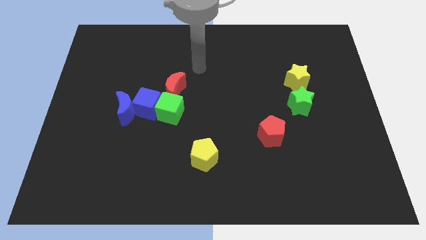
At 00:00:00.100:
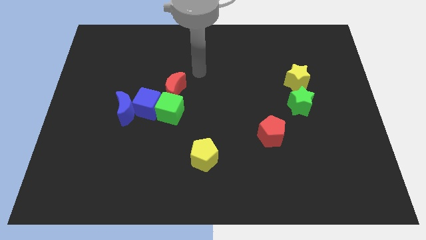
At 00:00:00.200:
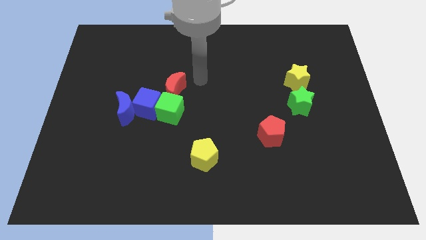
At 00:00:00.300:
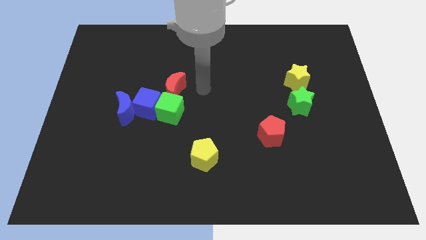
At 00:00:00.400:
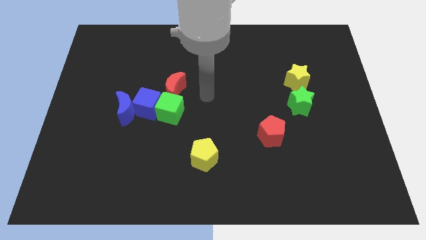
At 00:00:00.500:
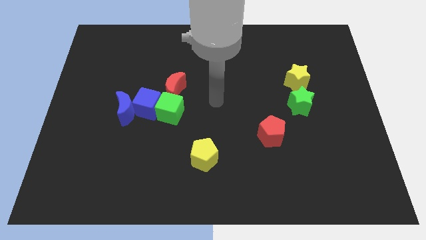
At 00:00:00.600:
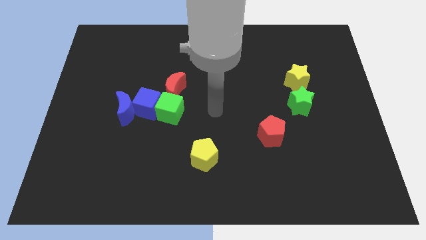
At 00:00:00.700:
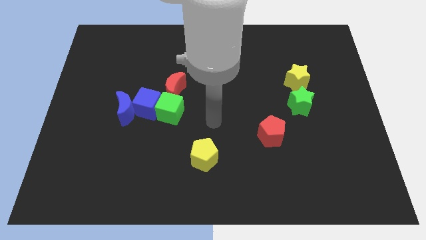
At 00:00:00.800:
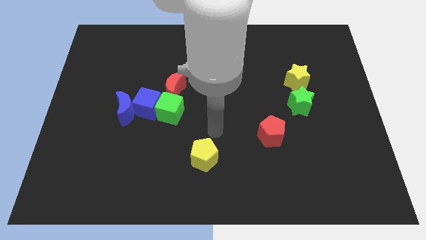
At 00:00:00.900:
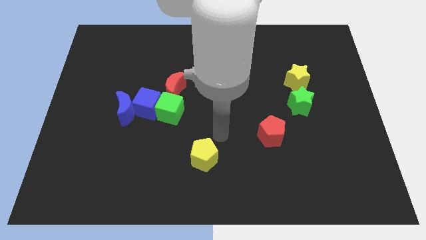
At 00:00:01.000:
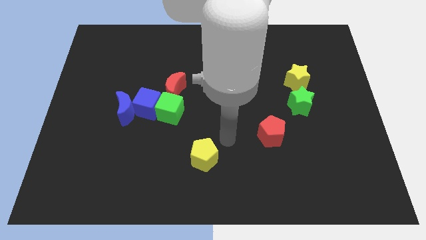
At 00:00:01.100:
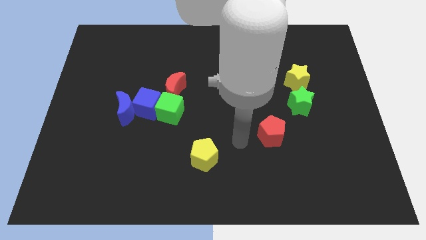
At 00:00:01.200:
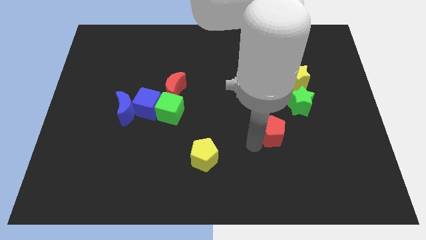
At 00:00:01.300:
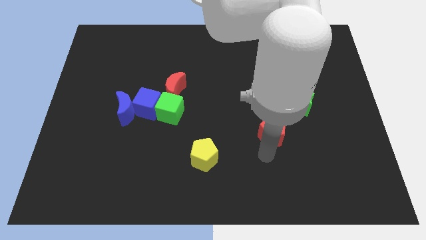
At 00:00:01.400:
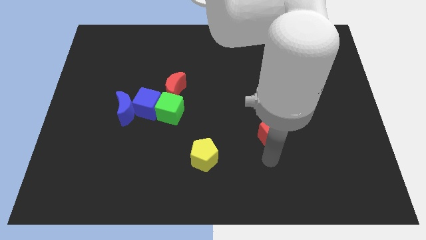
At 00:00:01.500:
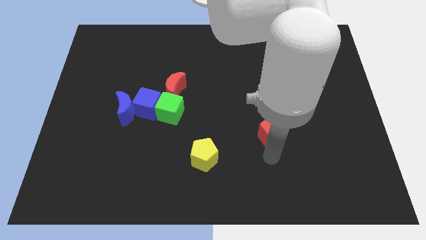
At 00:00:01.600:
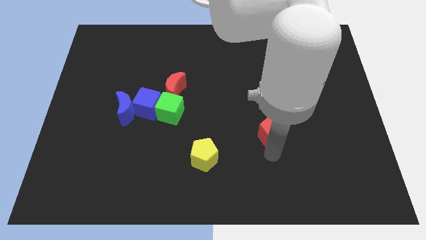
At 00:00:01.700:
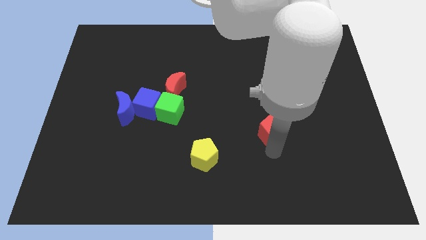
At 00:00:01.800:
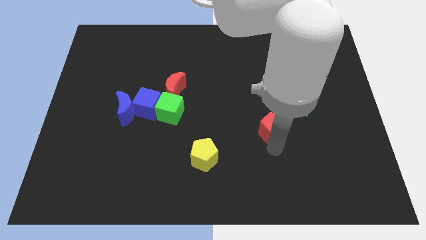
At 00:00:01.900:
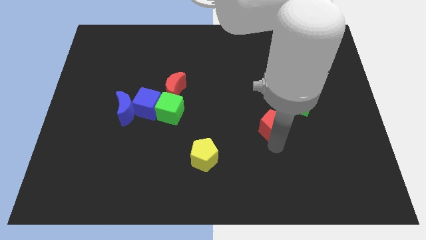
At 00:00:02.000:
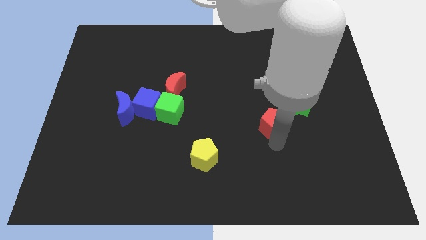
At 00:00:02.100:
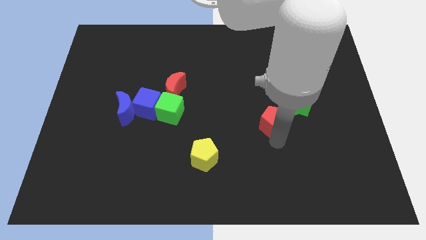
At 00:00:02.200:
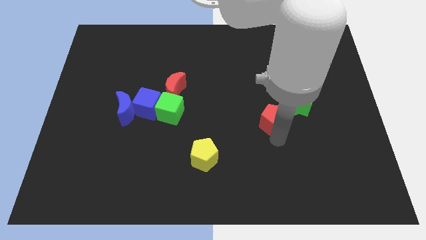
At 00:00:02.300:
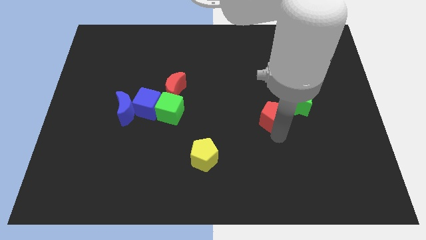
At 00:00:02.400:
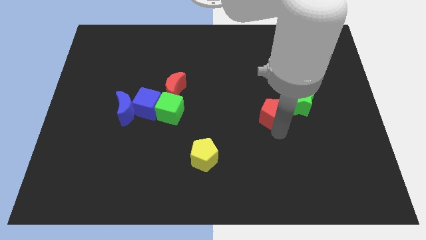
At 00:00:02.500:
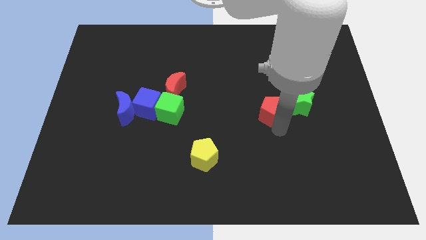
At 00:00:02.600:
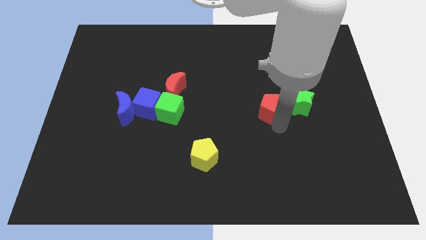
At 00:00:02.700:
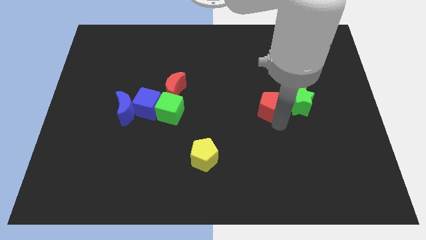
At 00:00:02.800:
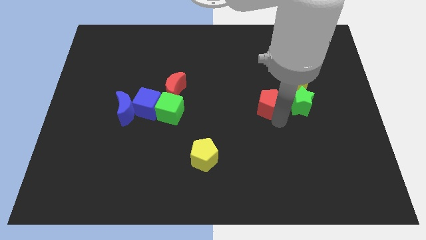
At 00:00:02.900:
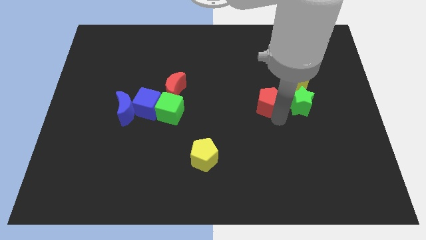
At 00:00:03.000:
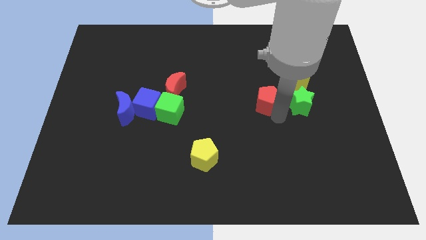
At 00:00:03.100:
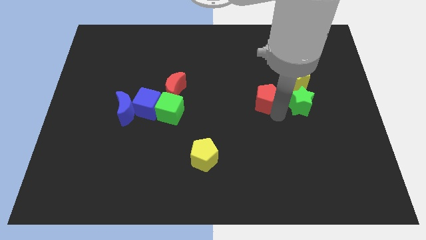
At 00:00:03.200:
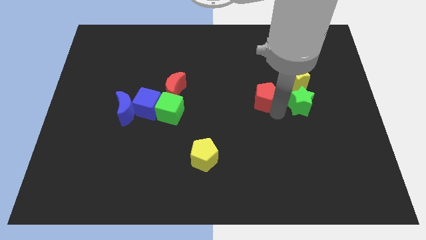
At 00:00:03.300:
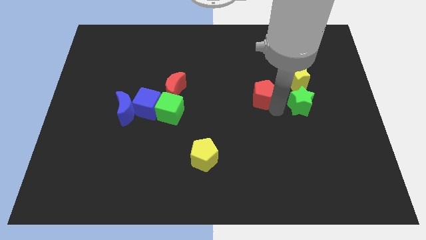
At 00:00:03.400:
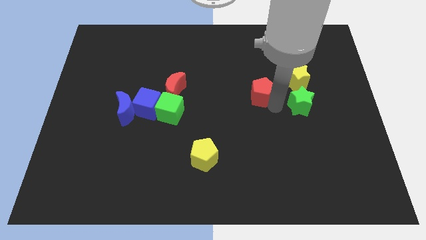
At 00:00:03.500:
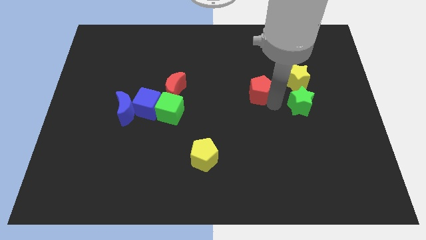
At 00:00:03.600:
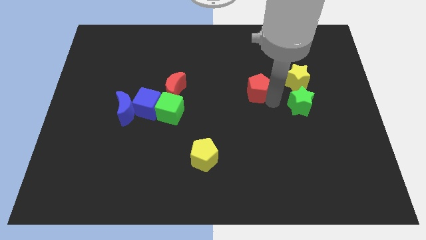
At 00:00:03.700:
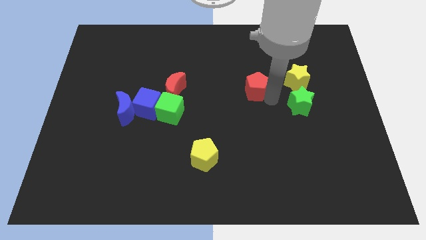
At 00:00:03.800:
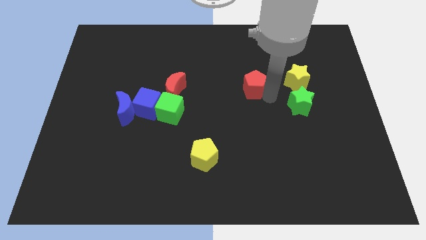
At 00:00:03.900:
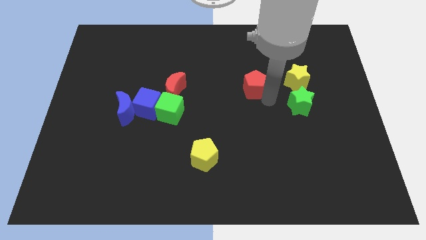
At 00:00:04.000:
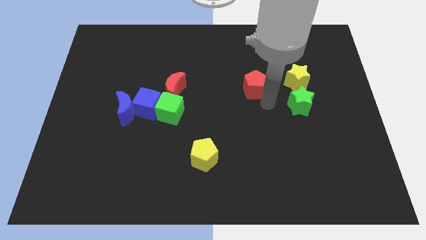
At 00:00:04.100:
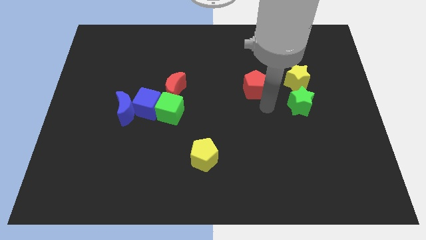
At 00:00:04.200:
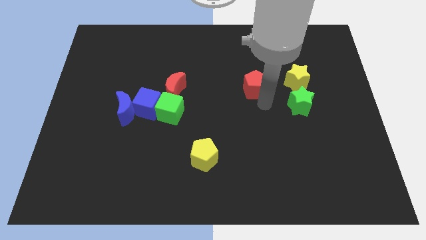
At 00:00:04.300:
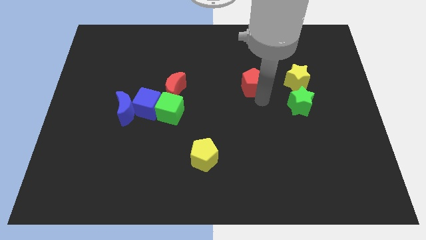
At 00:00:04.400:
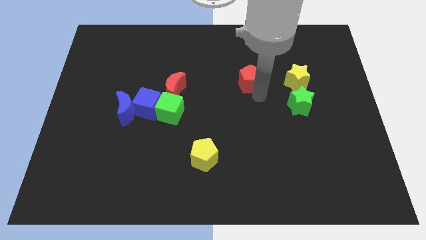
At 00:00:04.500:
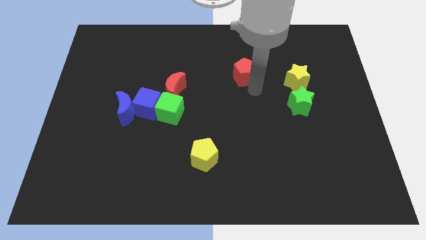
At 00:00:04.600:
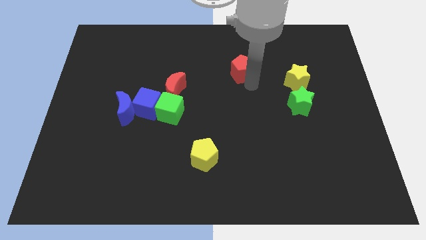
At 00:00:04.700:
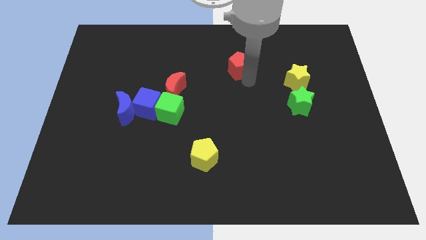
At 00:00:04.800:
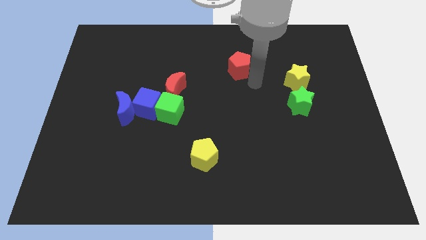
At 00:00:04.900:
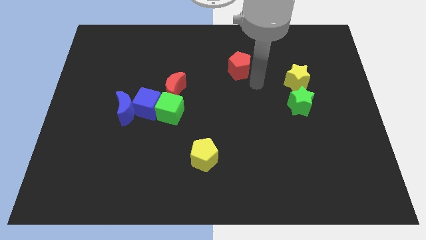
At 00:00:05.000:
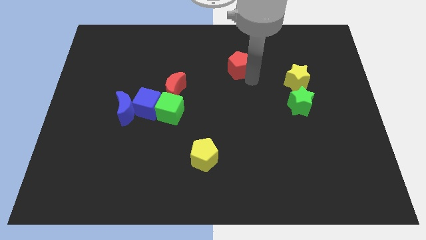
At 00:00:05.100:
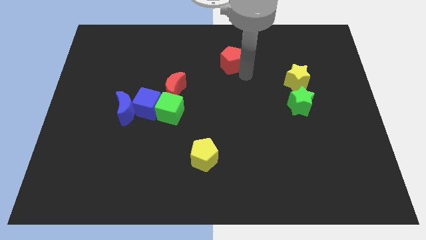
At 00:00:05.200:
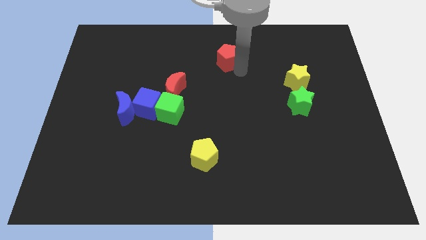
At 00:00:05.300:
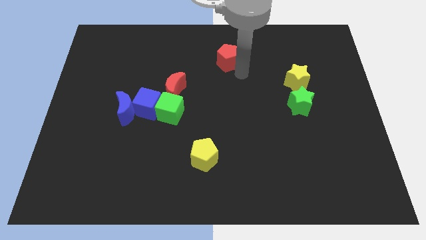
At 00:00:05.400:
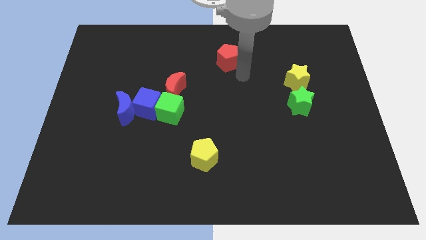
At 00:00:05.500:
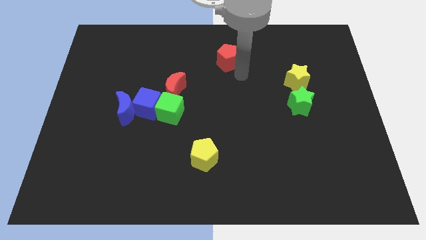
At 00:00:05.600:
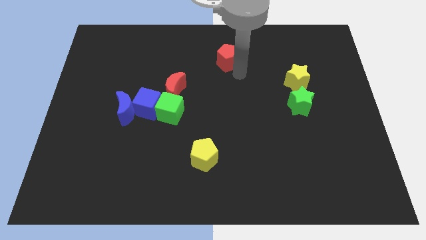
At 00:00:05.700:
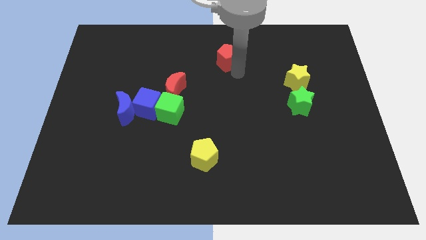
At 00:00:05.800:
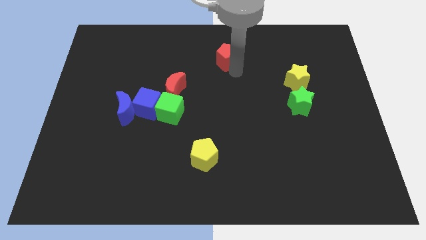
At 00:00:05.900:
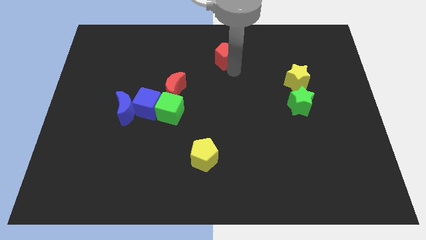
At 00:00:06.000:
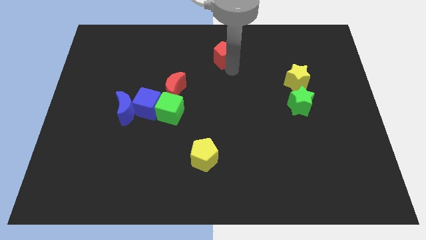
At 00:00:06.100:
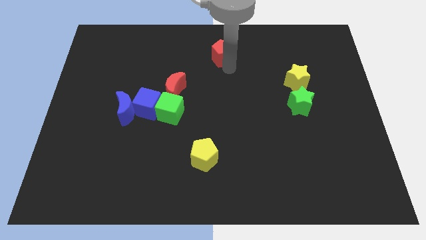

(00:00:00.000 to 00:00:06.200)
slide the red pentagon to the top
